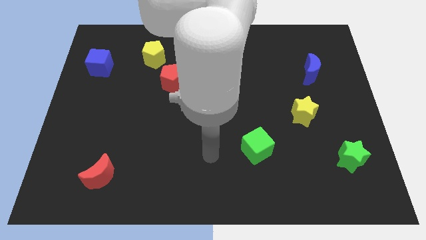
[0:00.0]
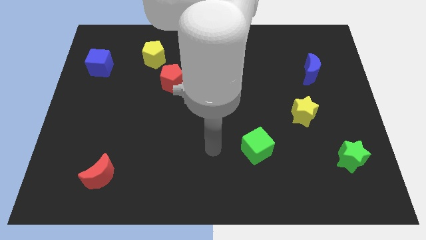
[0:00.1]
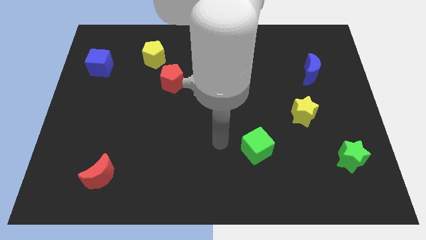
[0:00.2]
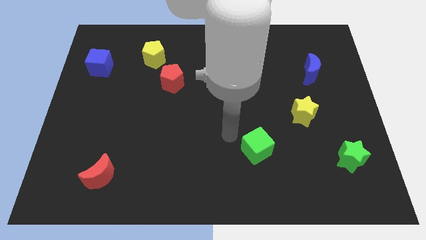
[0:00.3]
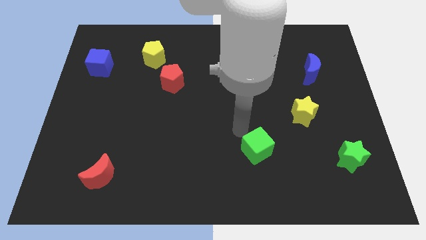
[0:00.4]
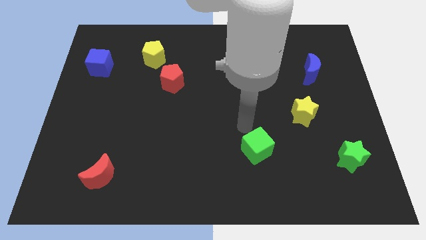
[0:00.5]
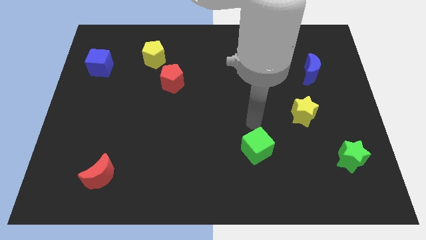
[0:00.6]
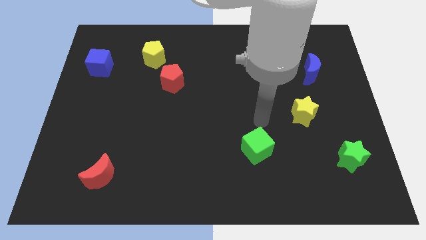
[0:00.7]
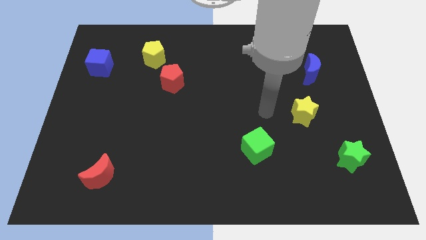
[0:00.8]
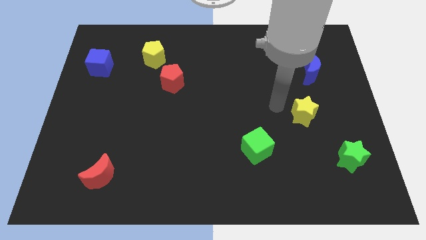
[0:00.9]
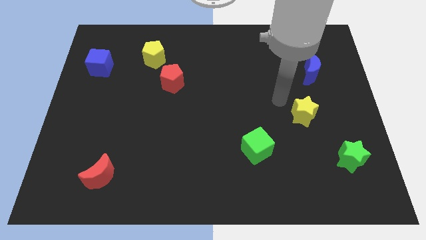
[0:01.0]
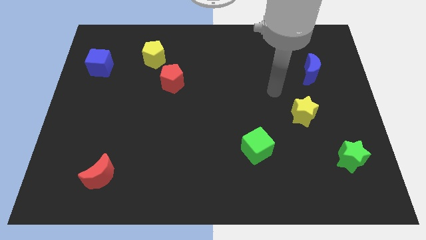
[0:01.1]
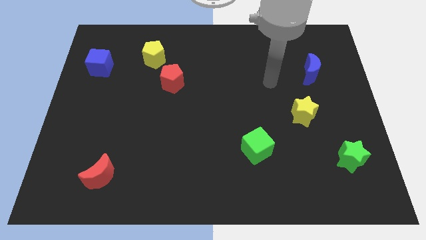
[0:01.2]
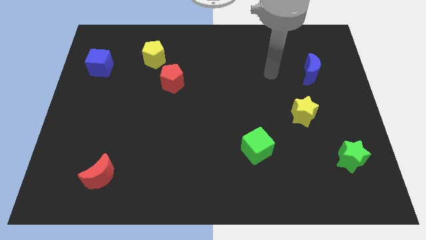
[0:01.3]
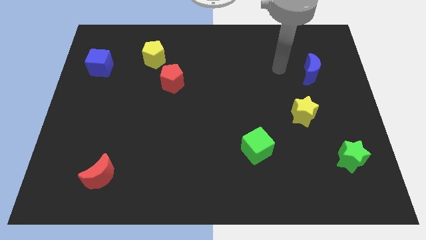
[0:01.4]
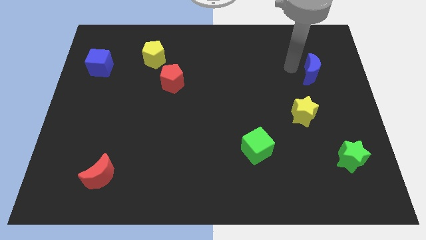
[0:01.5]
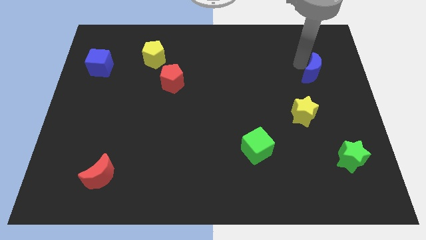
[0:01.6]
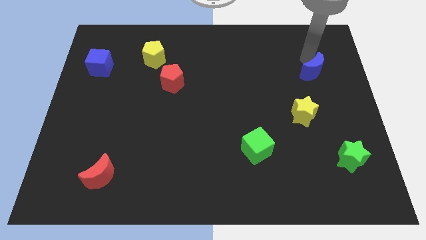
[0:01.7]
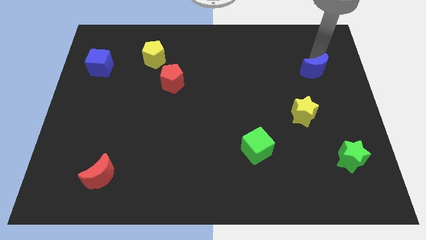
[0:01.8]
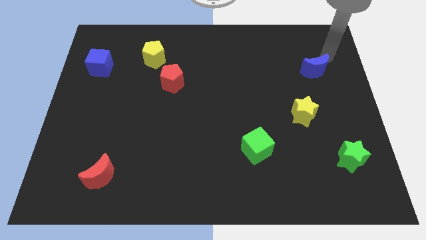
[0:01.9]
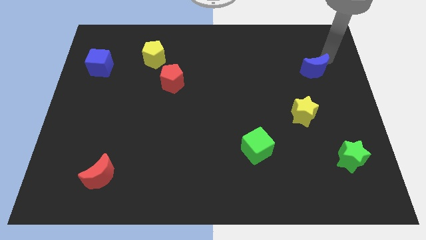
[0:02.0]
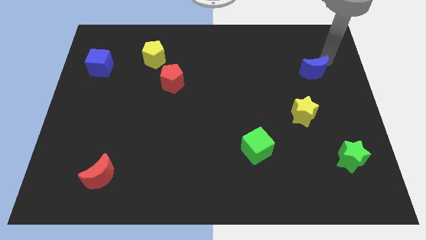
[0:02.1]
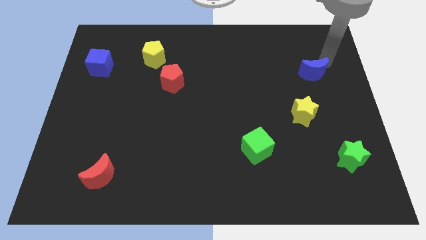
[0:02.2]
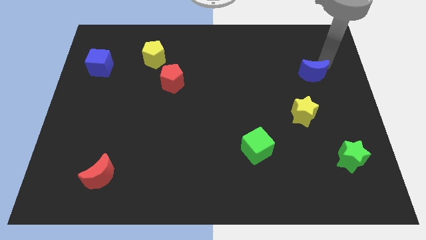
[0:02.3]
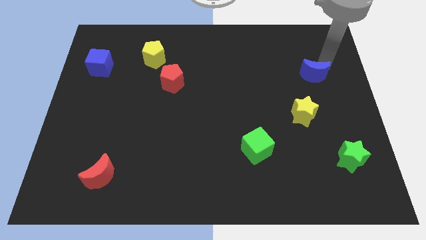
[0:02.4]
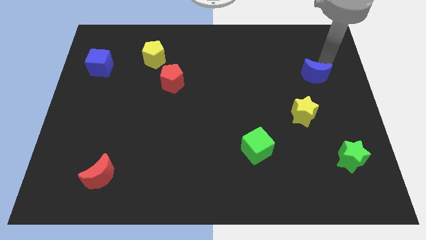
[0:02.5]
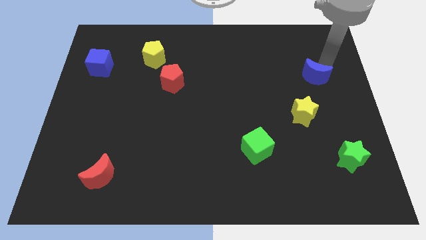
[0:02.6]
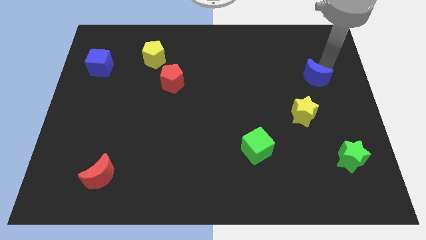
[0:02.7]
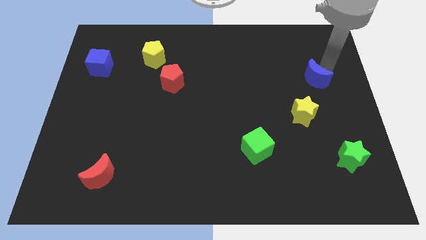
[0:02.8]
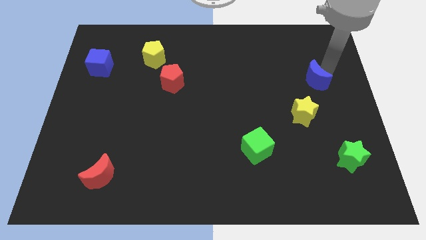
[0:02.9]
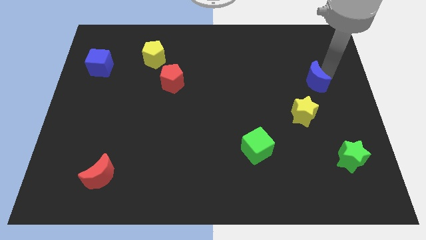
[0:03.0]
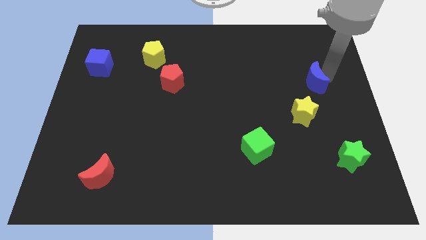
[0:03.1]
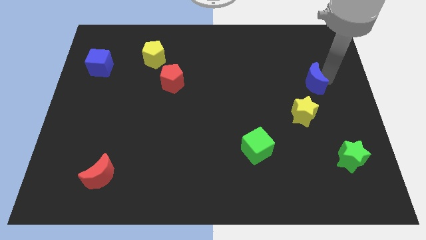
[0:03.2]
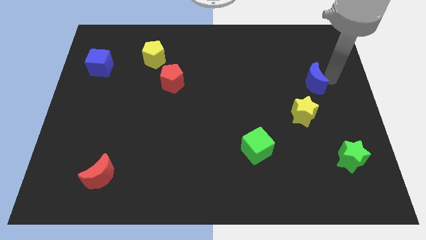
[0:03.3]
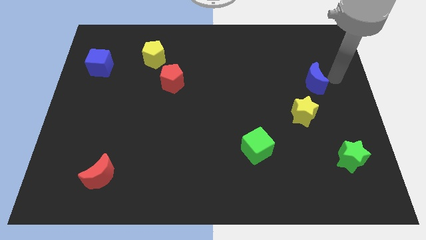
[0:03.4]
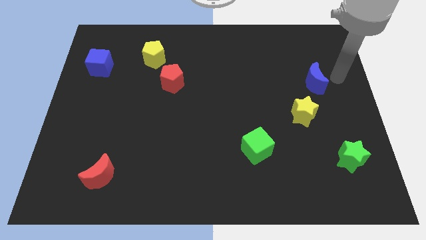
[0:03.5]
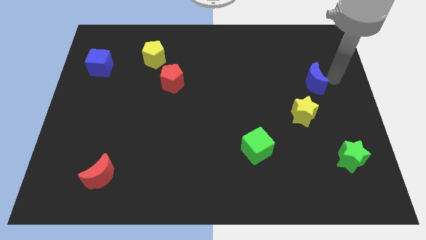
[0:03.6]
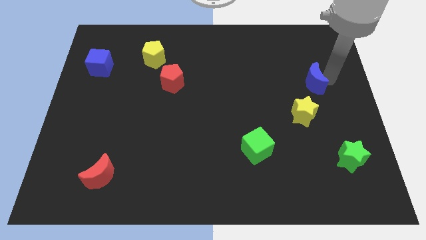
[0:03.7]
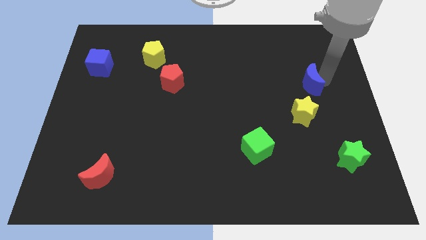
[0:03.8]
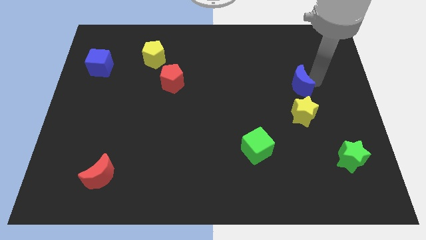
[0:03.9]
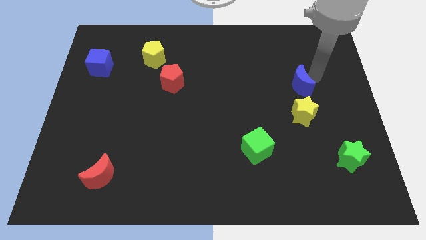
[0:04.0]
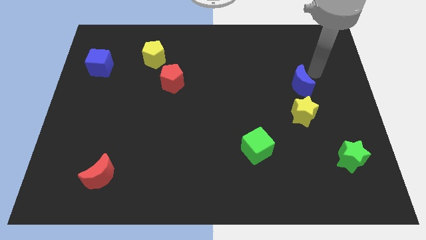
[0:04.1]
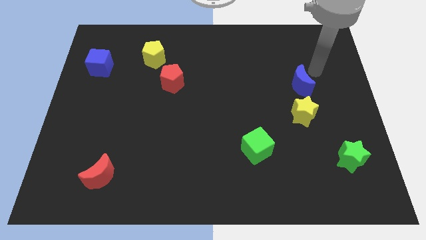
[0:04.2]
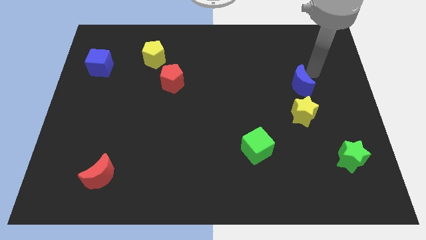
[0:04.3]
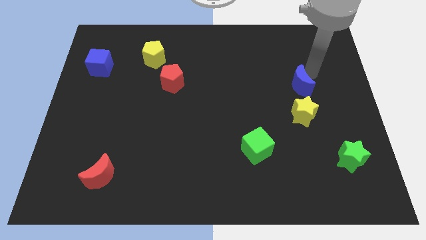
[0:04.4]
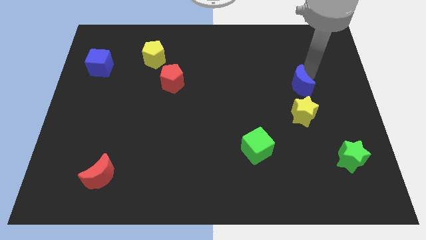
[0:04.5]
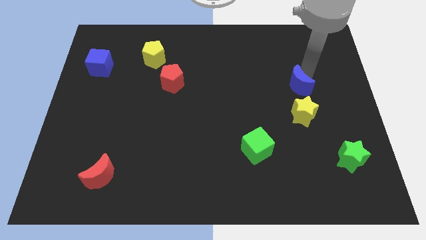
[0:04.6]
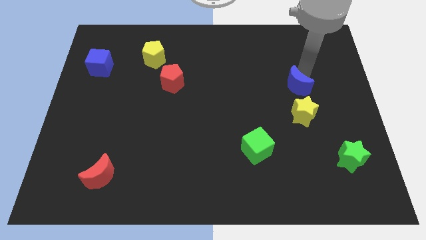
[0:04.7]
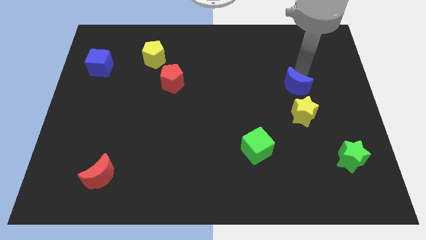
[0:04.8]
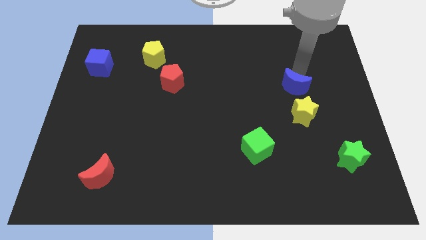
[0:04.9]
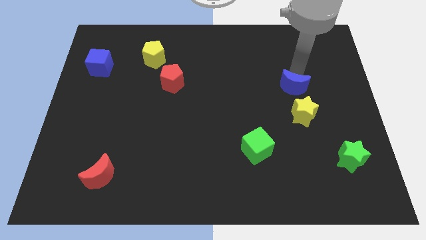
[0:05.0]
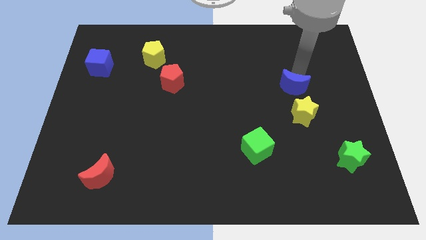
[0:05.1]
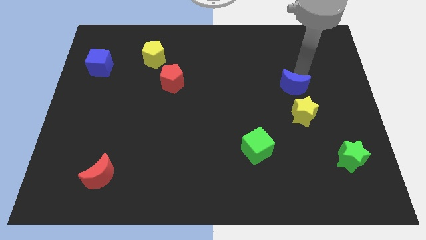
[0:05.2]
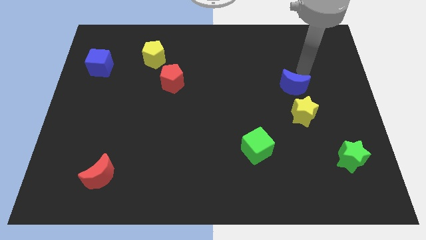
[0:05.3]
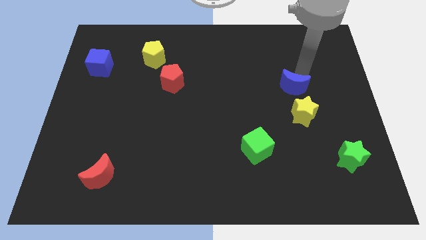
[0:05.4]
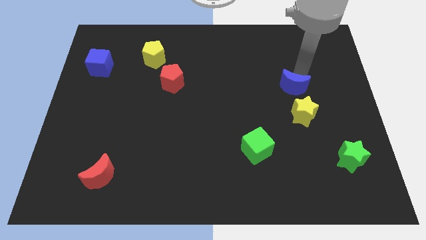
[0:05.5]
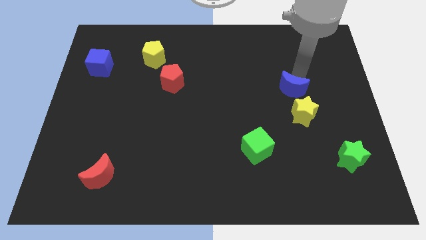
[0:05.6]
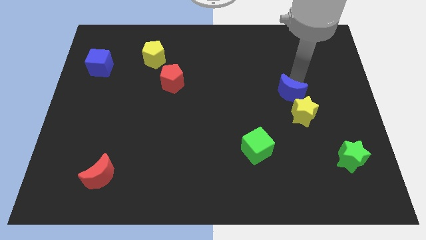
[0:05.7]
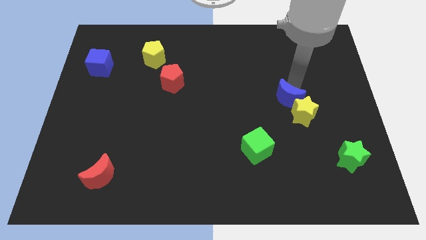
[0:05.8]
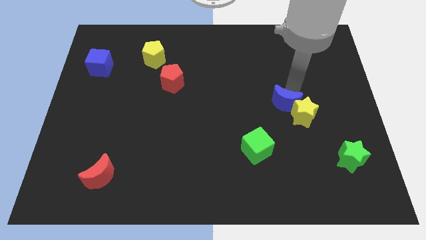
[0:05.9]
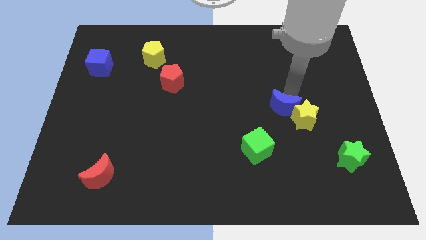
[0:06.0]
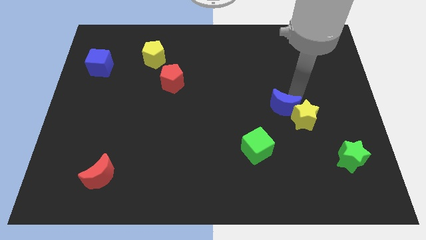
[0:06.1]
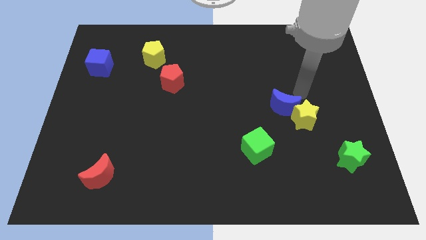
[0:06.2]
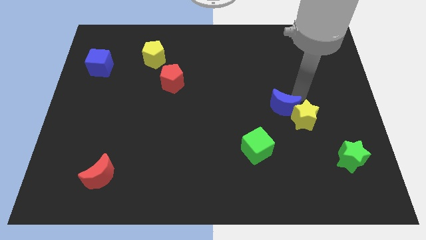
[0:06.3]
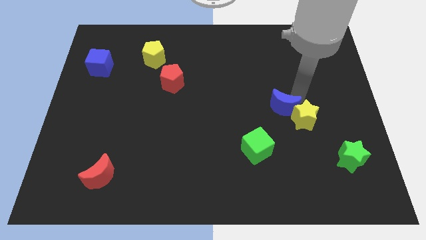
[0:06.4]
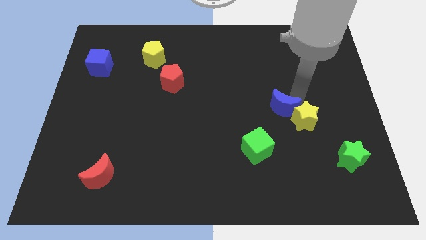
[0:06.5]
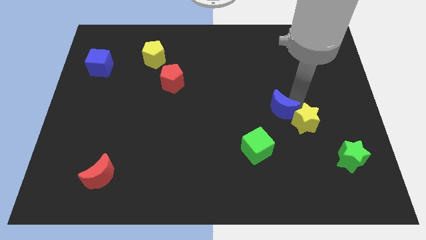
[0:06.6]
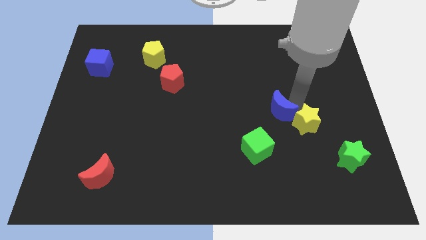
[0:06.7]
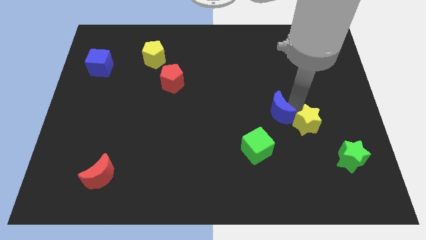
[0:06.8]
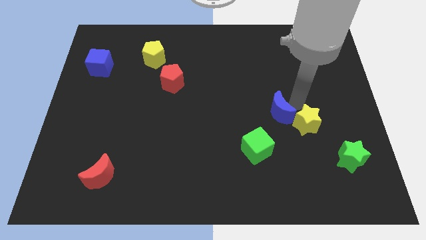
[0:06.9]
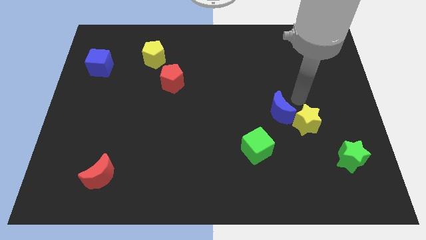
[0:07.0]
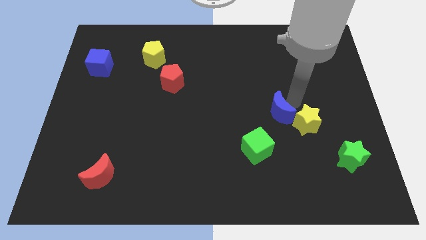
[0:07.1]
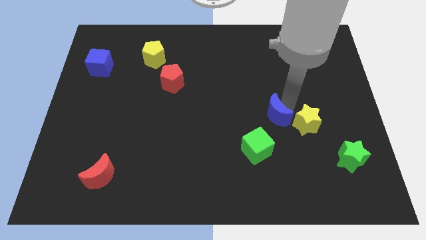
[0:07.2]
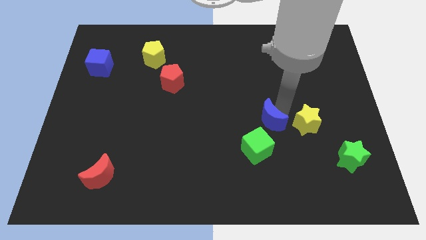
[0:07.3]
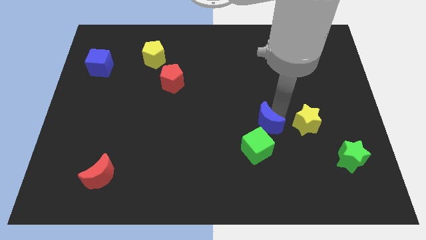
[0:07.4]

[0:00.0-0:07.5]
slide the blue moon down and left

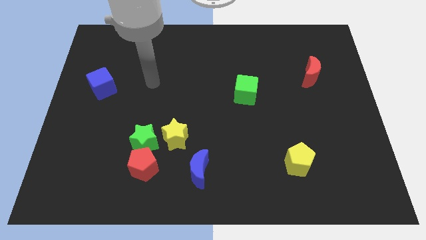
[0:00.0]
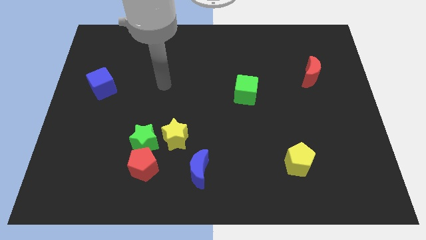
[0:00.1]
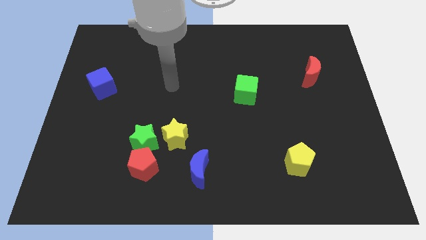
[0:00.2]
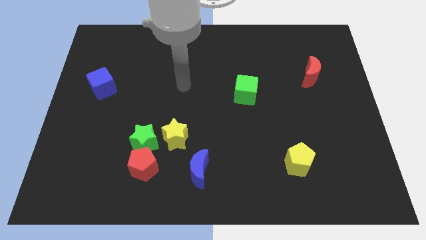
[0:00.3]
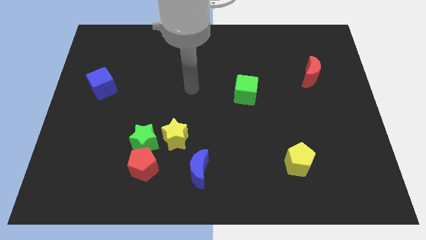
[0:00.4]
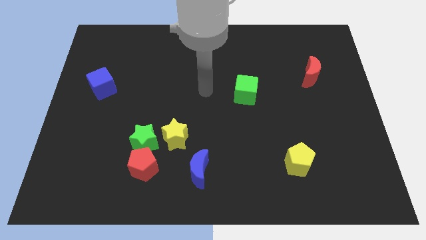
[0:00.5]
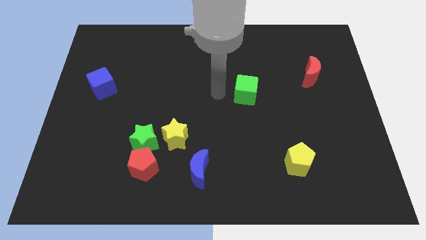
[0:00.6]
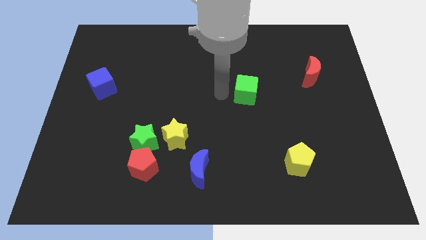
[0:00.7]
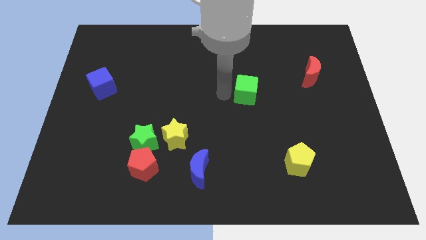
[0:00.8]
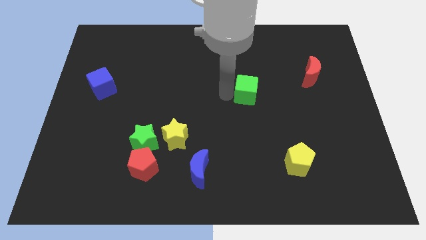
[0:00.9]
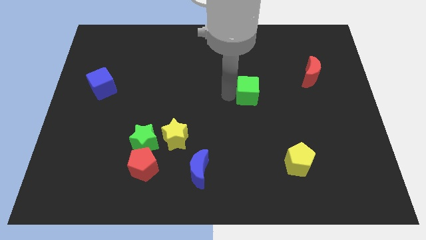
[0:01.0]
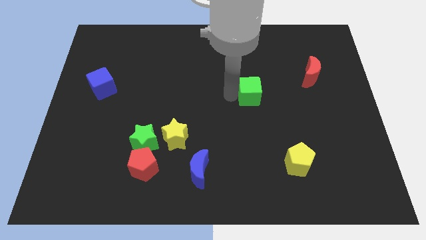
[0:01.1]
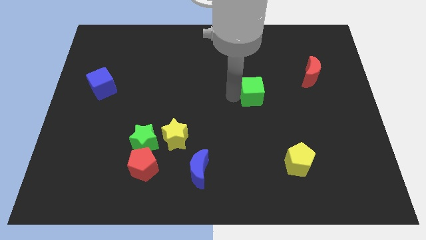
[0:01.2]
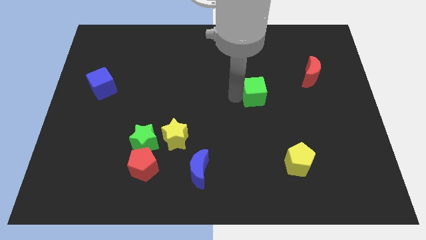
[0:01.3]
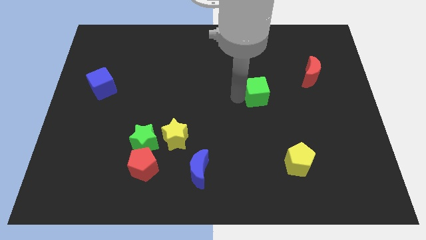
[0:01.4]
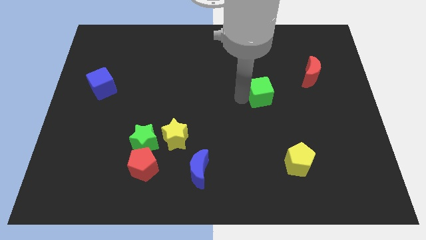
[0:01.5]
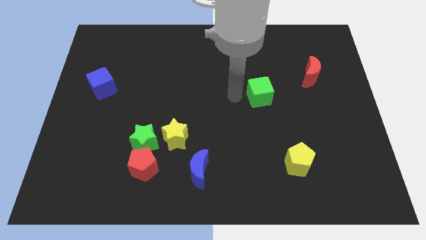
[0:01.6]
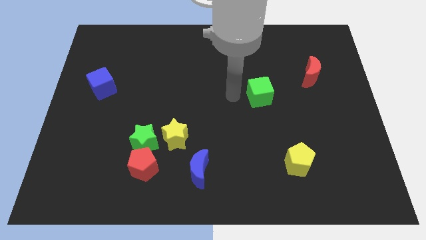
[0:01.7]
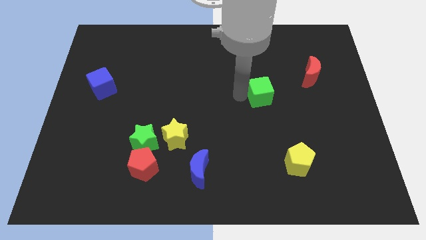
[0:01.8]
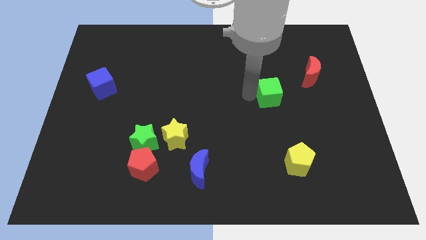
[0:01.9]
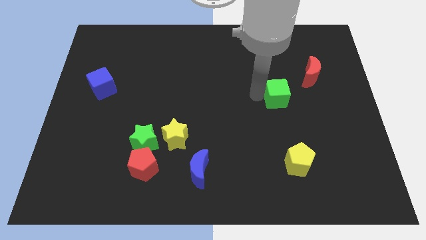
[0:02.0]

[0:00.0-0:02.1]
slightly slide the green cube right
